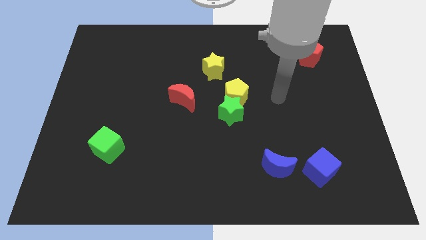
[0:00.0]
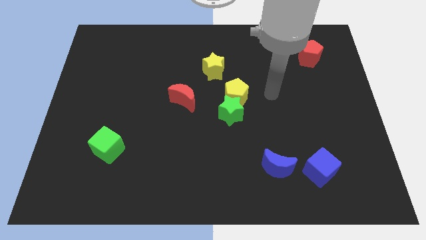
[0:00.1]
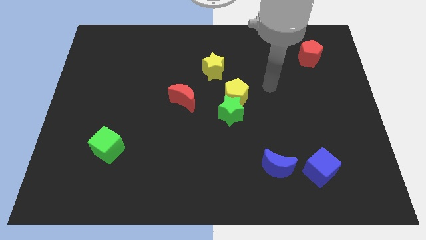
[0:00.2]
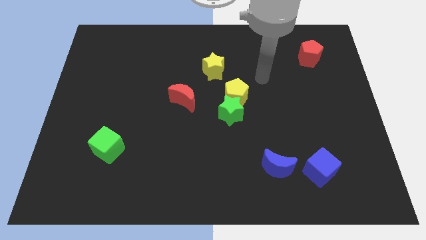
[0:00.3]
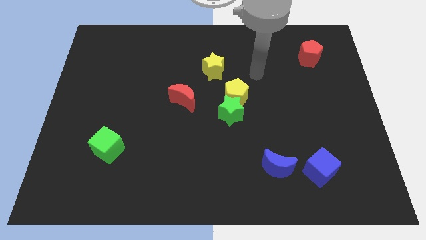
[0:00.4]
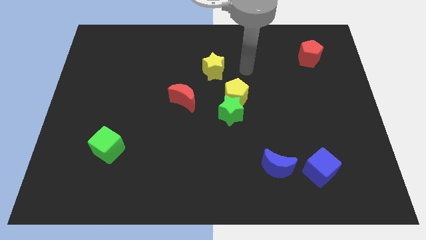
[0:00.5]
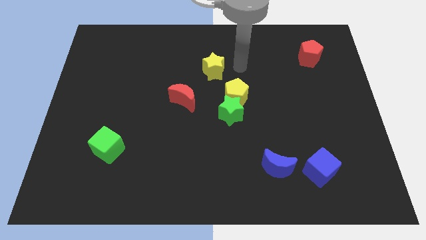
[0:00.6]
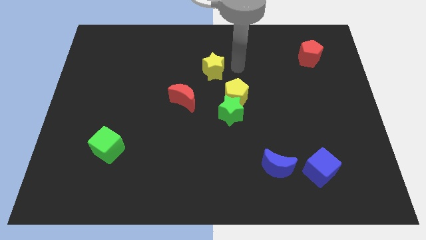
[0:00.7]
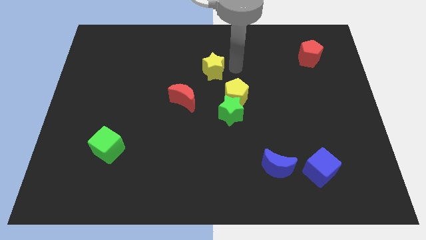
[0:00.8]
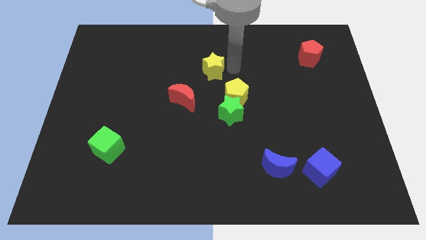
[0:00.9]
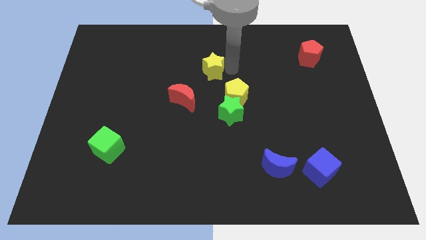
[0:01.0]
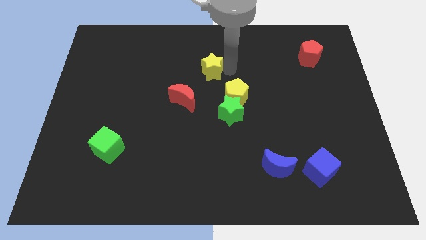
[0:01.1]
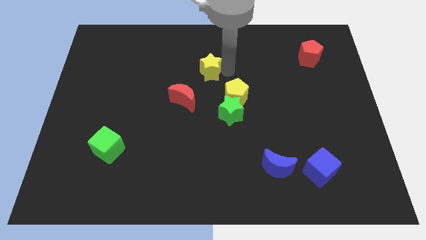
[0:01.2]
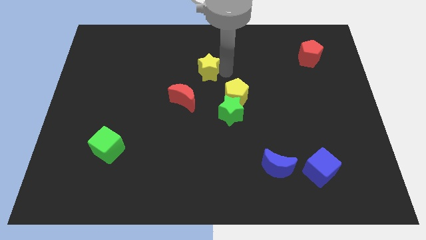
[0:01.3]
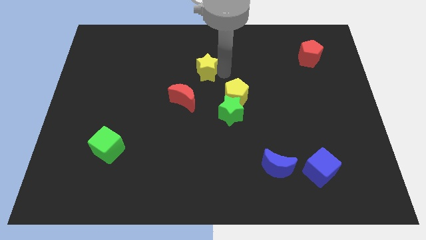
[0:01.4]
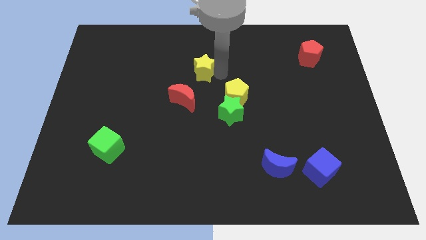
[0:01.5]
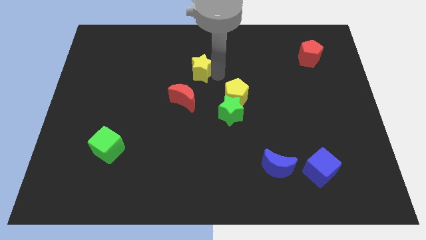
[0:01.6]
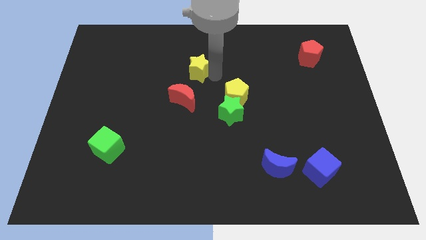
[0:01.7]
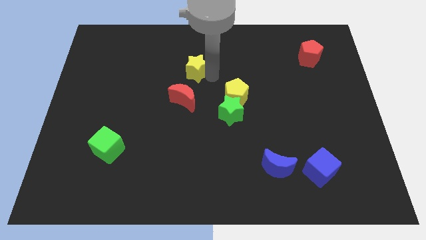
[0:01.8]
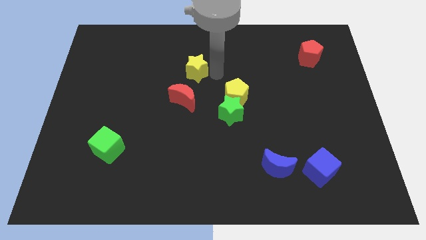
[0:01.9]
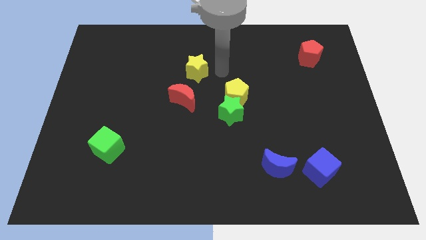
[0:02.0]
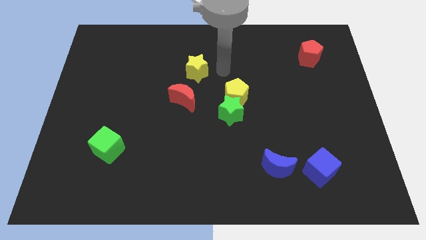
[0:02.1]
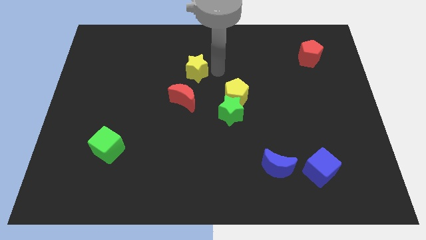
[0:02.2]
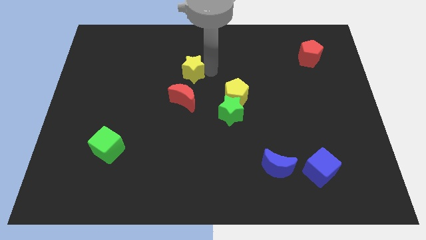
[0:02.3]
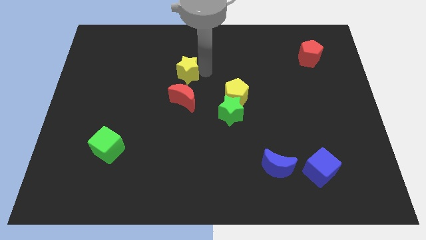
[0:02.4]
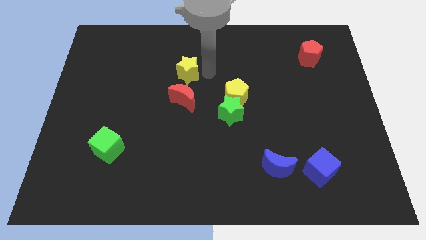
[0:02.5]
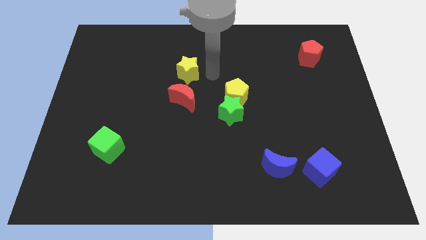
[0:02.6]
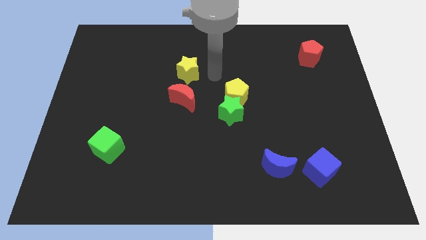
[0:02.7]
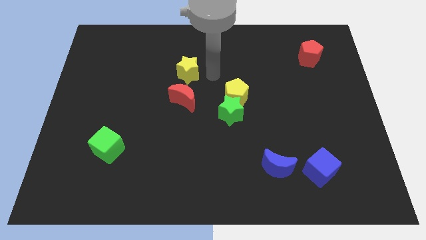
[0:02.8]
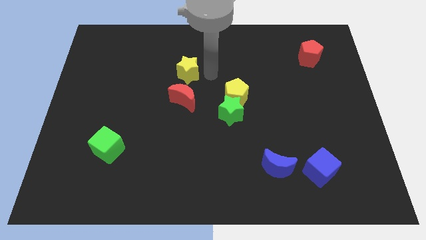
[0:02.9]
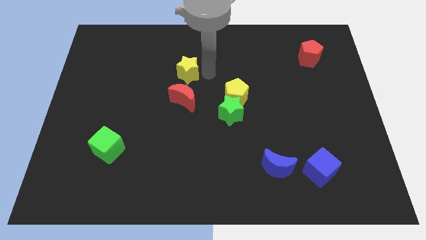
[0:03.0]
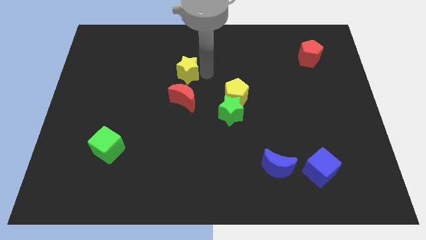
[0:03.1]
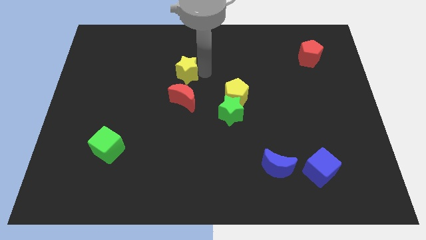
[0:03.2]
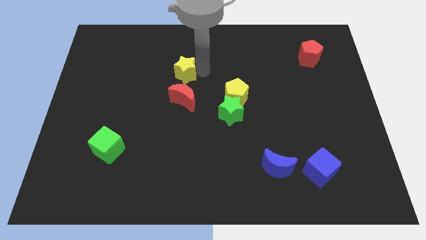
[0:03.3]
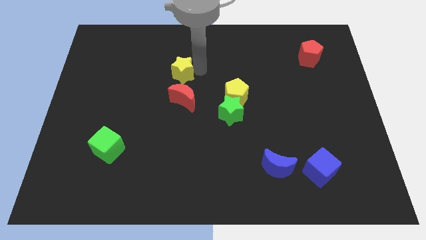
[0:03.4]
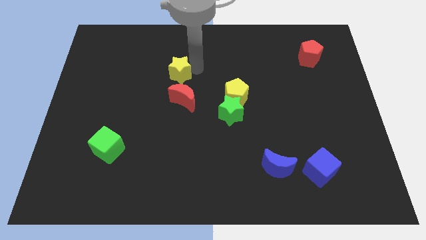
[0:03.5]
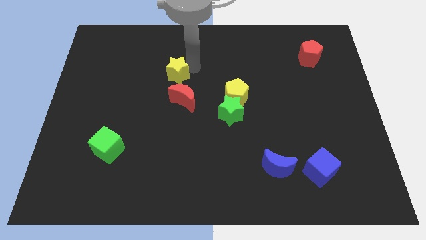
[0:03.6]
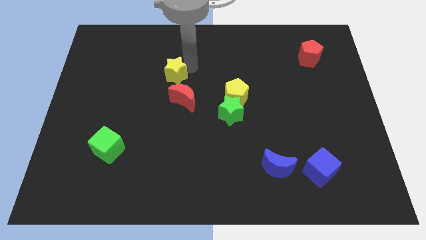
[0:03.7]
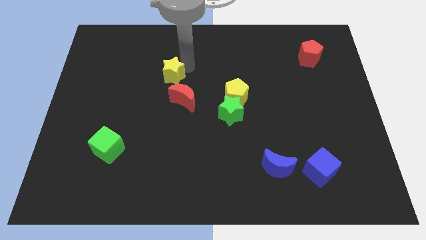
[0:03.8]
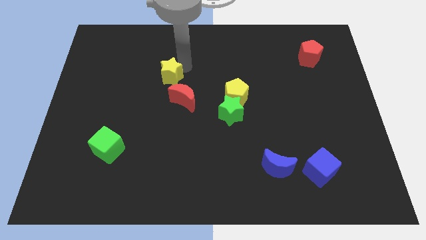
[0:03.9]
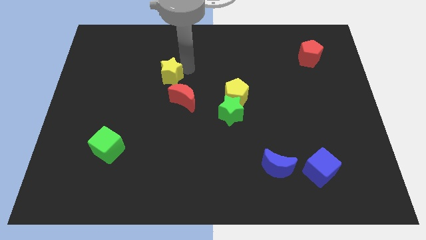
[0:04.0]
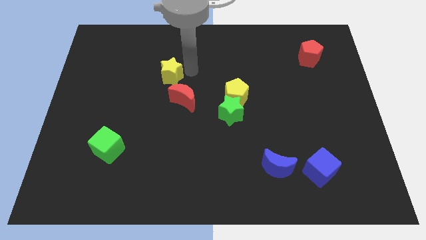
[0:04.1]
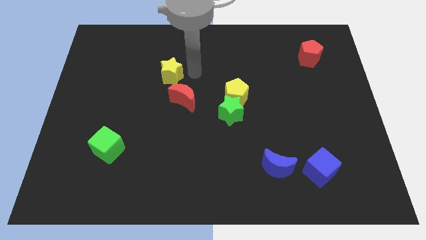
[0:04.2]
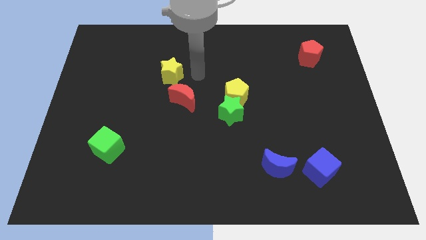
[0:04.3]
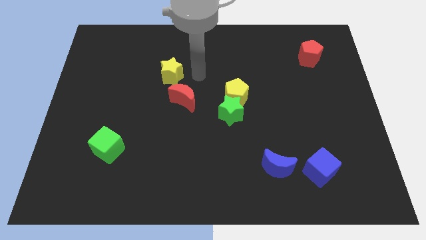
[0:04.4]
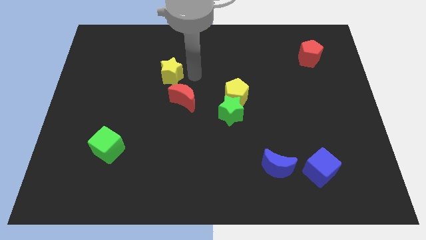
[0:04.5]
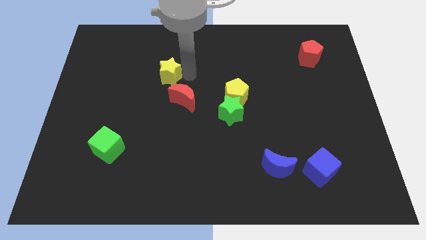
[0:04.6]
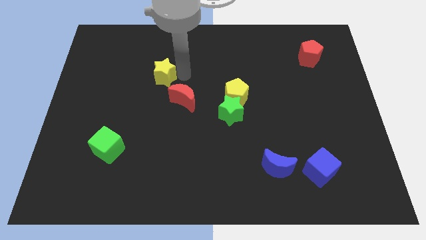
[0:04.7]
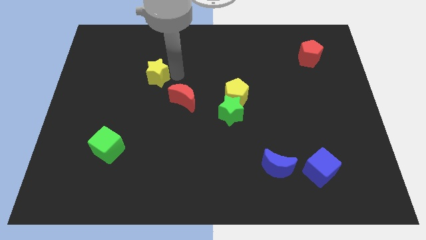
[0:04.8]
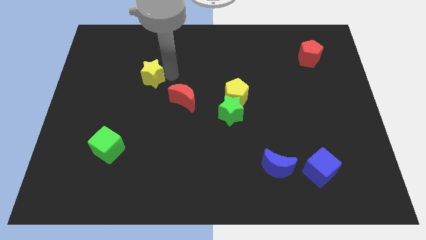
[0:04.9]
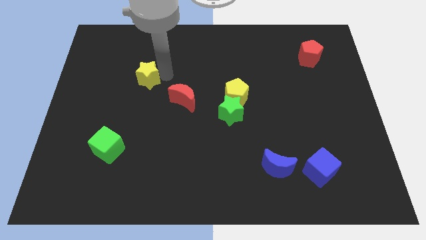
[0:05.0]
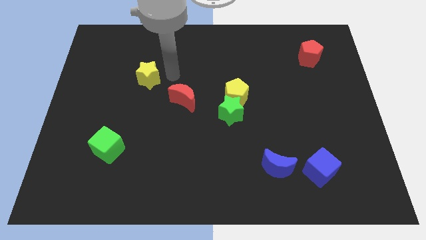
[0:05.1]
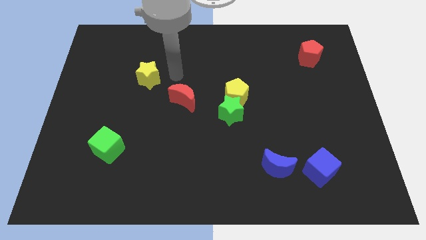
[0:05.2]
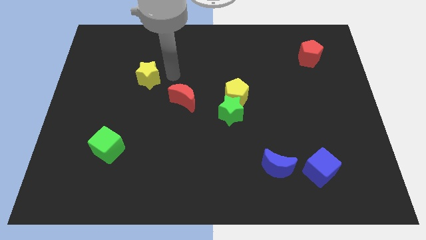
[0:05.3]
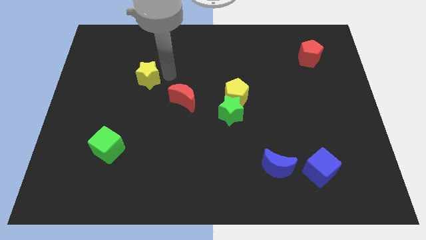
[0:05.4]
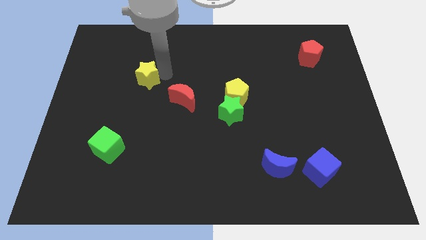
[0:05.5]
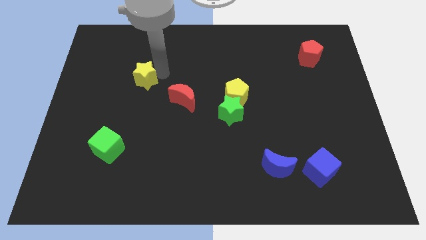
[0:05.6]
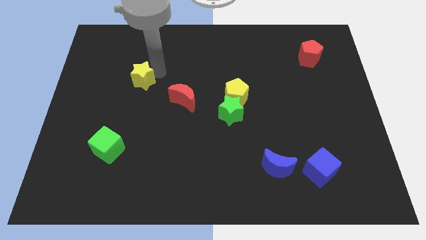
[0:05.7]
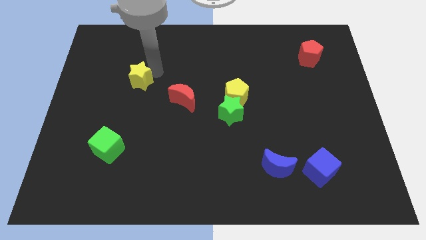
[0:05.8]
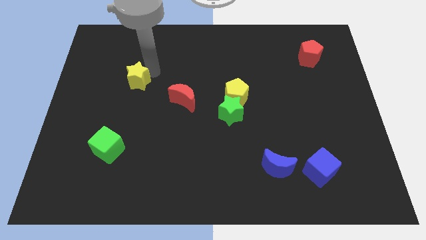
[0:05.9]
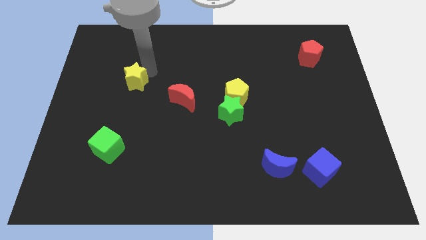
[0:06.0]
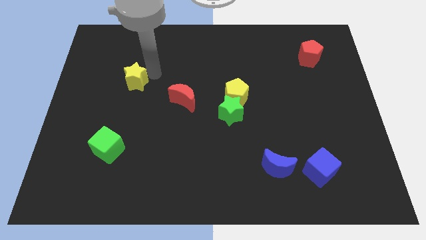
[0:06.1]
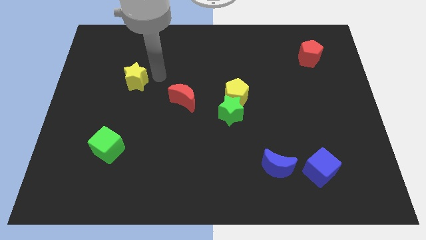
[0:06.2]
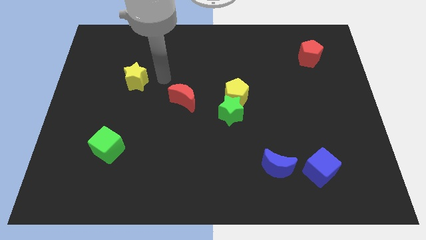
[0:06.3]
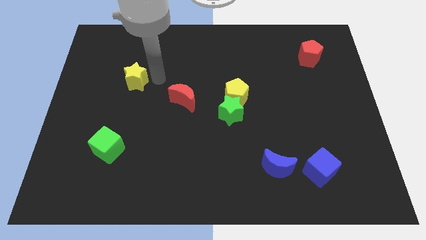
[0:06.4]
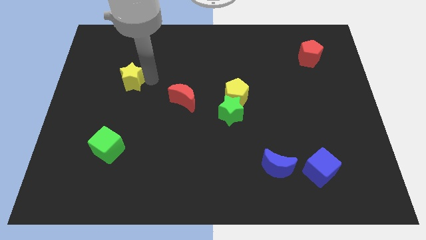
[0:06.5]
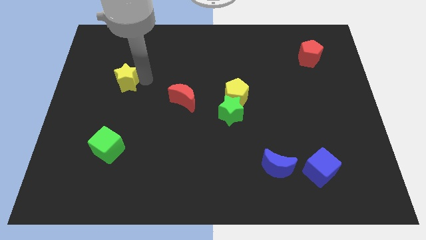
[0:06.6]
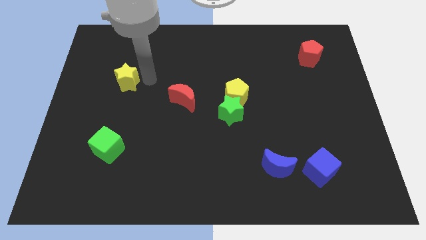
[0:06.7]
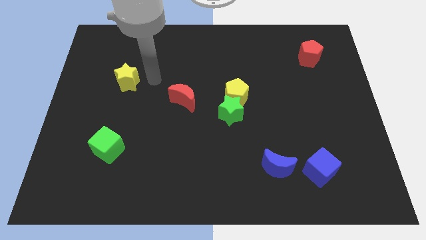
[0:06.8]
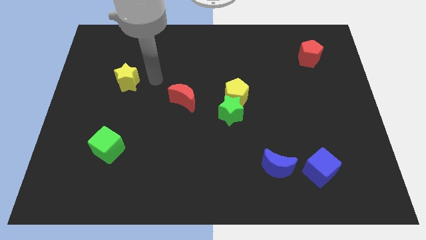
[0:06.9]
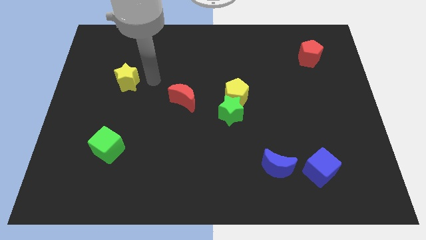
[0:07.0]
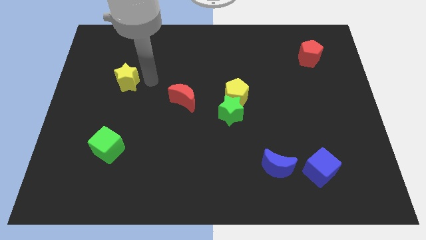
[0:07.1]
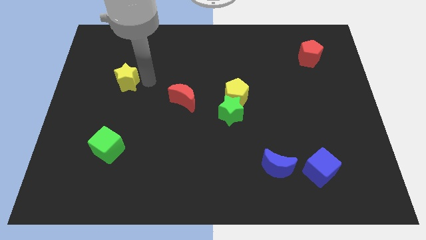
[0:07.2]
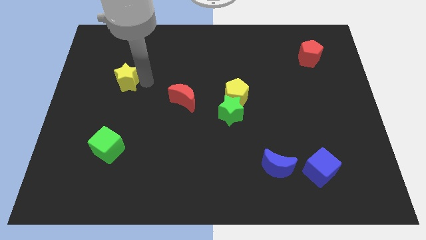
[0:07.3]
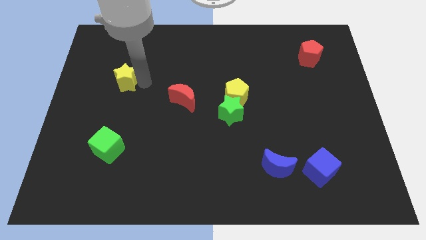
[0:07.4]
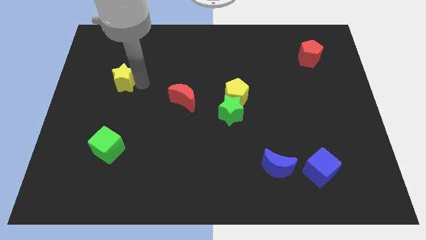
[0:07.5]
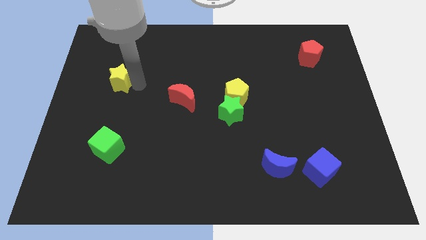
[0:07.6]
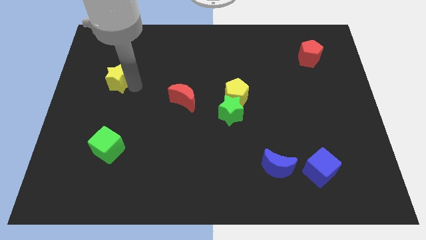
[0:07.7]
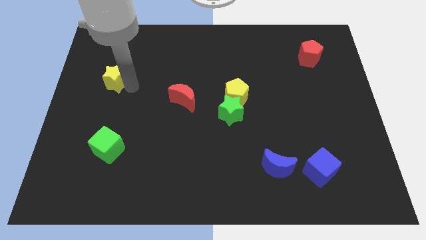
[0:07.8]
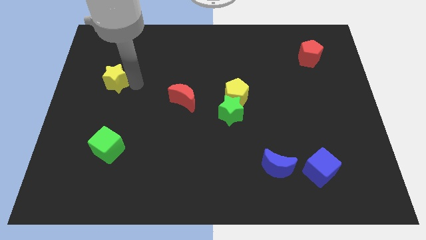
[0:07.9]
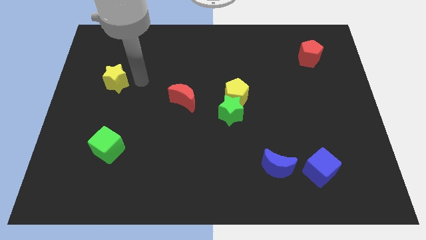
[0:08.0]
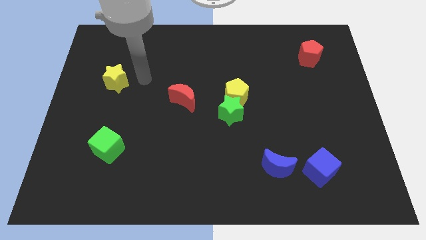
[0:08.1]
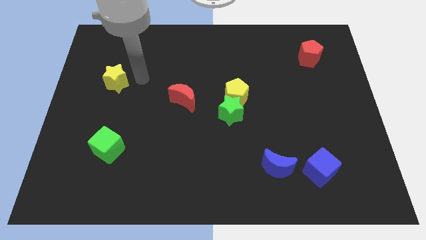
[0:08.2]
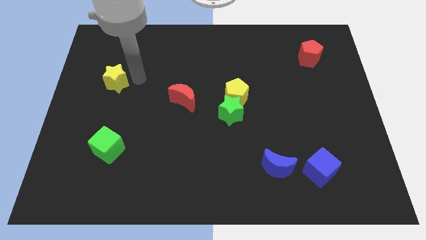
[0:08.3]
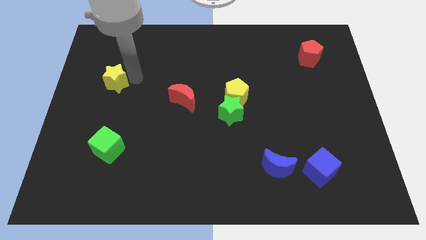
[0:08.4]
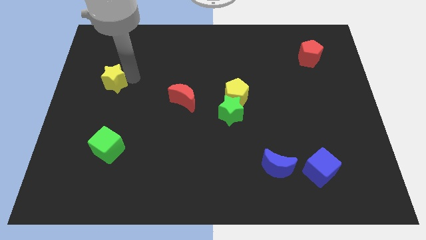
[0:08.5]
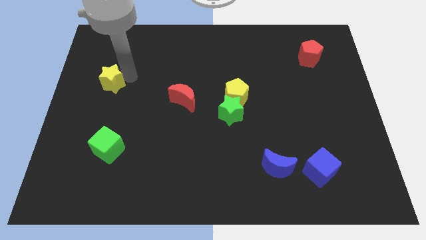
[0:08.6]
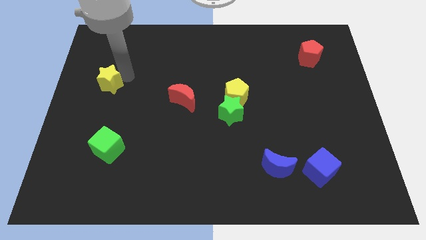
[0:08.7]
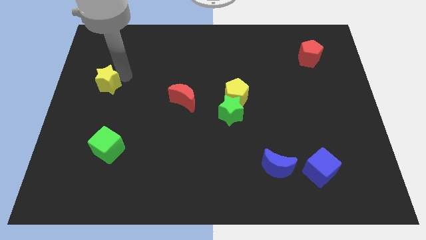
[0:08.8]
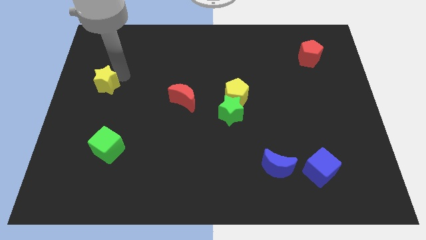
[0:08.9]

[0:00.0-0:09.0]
put the yellow star to the center left
